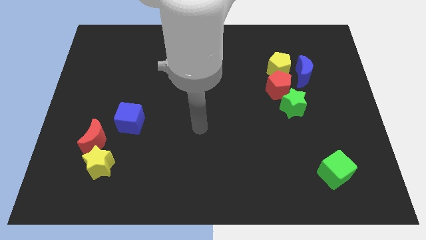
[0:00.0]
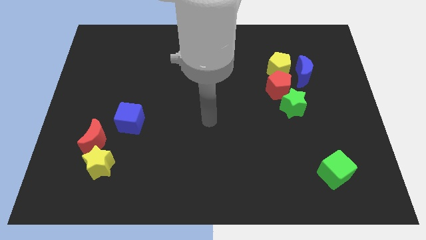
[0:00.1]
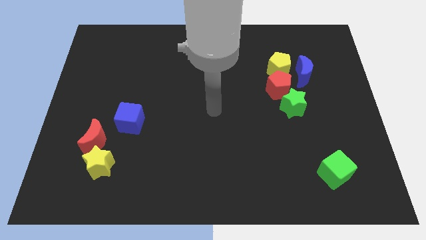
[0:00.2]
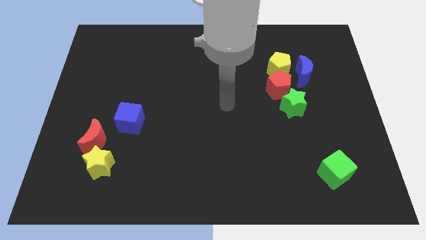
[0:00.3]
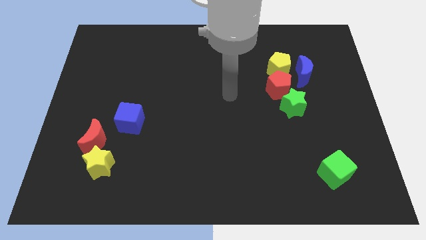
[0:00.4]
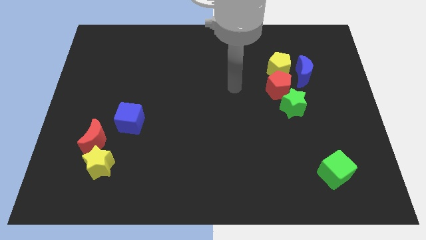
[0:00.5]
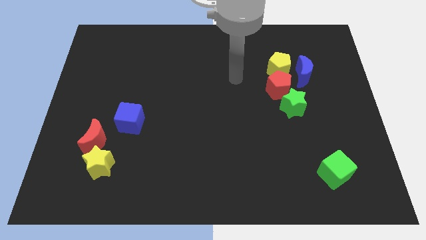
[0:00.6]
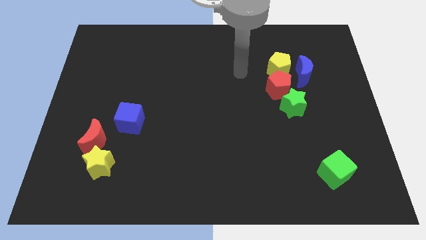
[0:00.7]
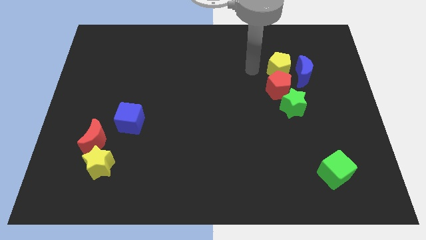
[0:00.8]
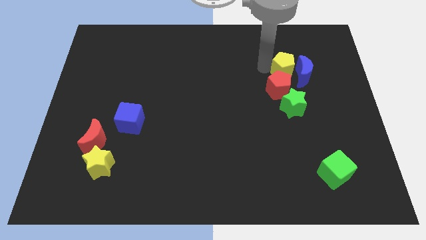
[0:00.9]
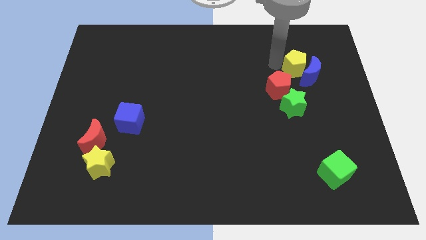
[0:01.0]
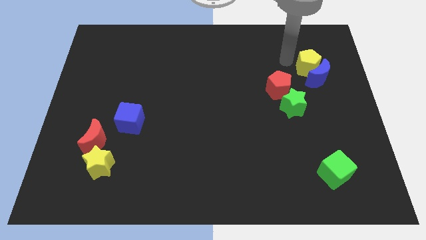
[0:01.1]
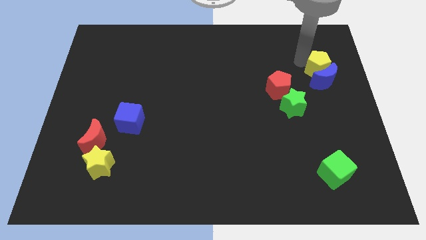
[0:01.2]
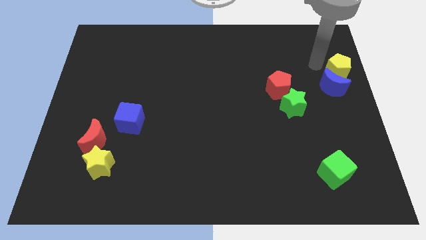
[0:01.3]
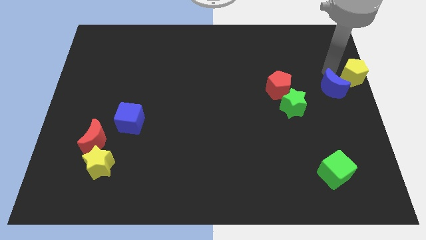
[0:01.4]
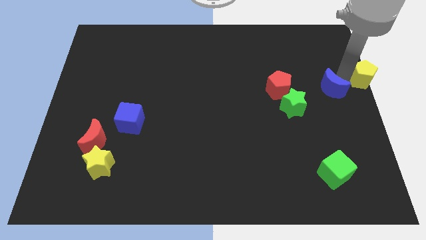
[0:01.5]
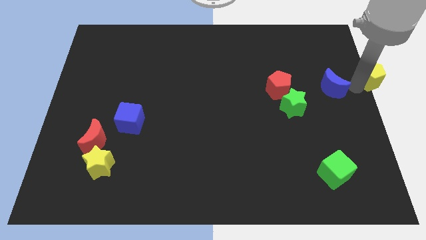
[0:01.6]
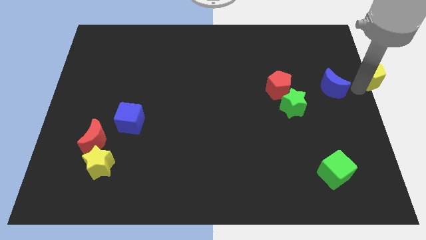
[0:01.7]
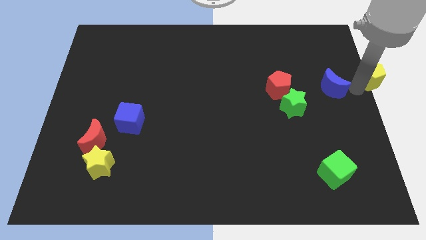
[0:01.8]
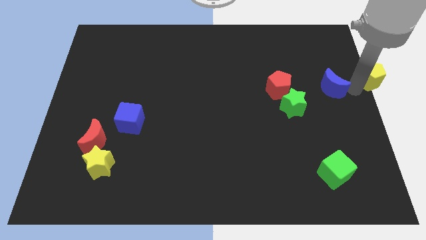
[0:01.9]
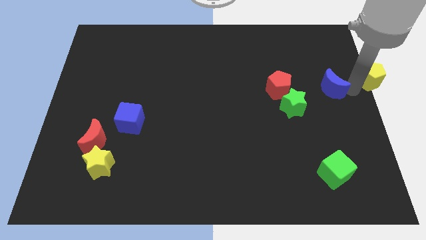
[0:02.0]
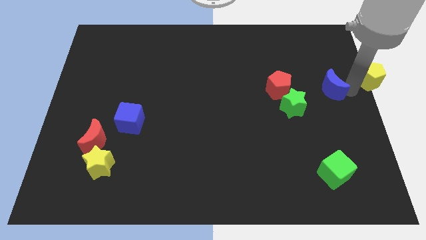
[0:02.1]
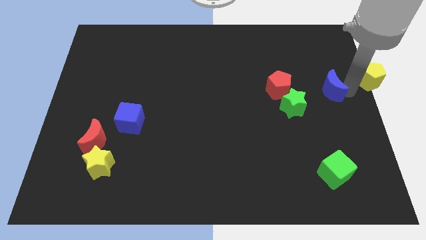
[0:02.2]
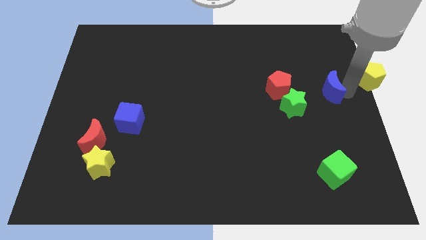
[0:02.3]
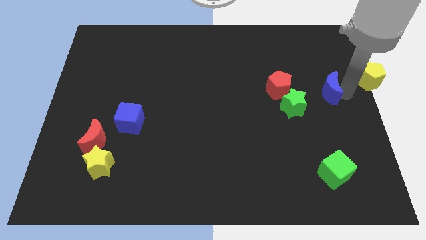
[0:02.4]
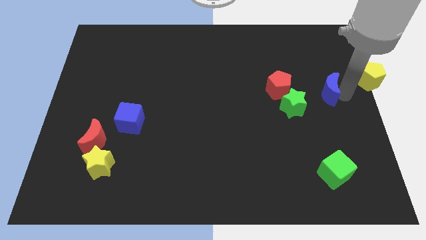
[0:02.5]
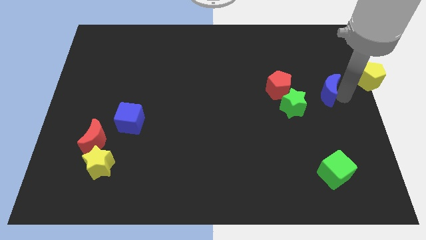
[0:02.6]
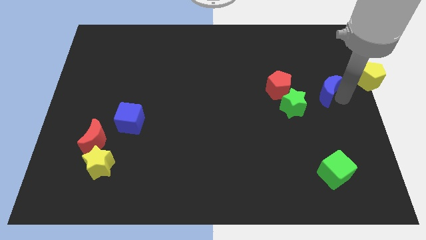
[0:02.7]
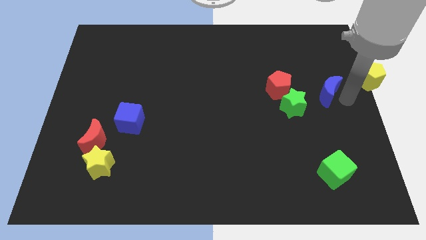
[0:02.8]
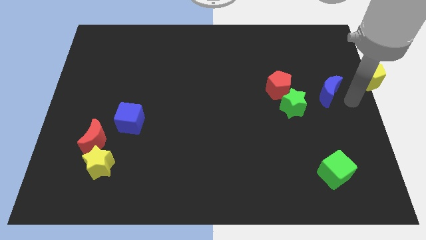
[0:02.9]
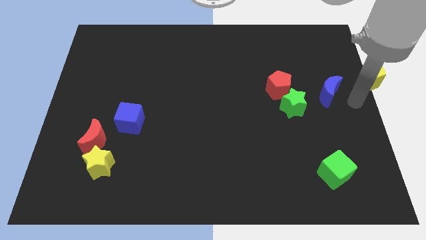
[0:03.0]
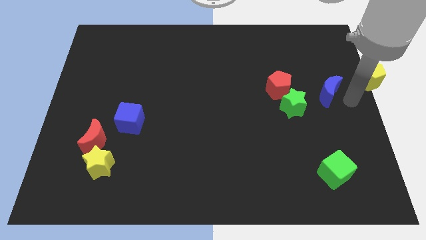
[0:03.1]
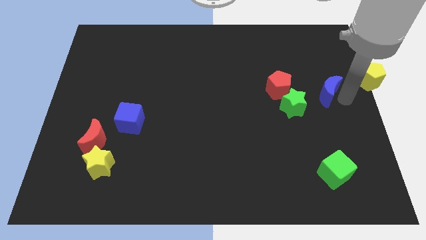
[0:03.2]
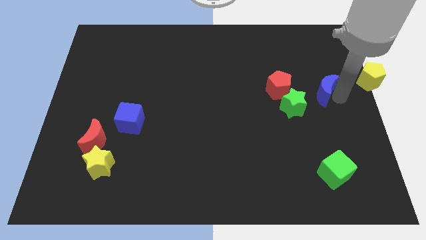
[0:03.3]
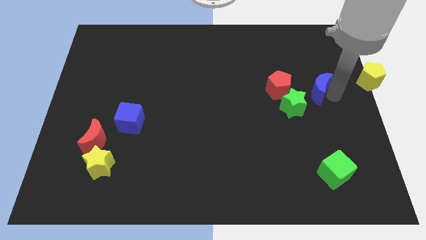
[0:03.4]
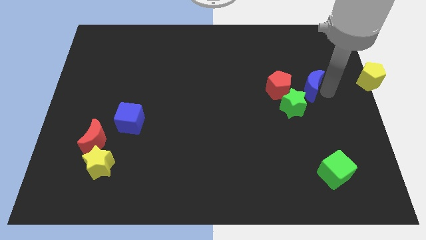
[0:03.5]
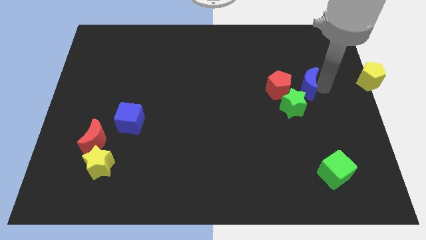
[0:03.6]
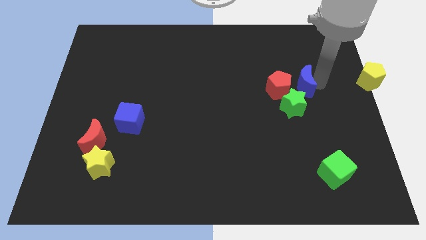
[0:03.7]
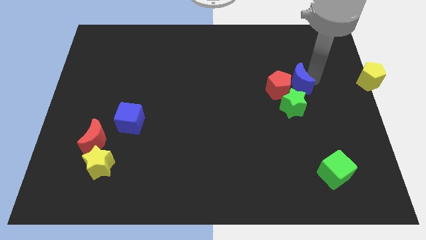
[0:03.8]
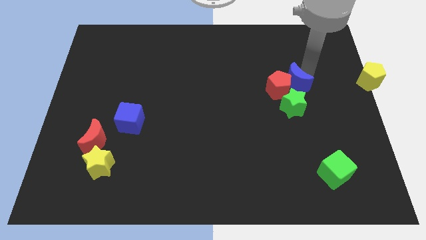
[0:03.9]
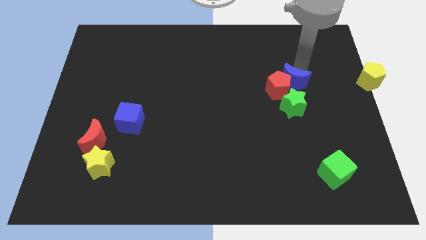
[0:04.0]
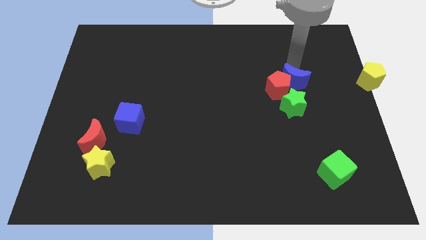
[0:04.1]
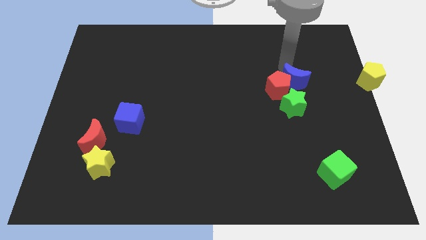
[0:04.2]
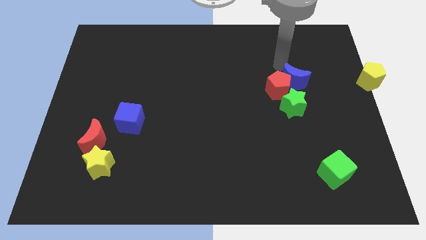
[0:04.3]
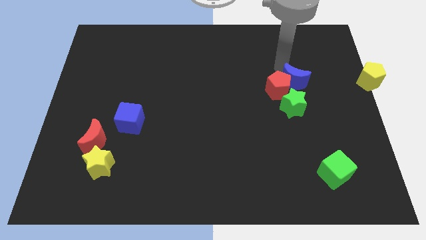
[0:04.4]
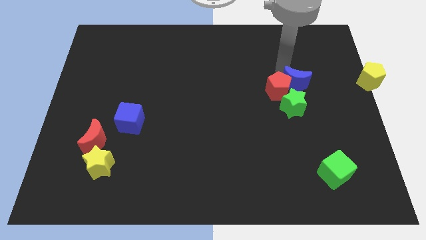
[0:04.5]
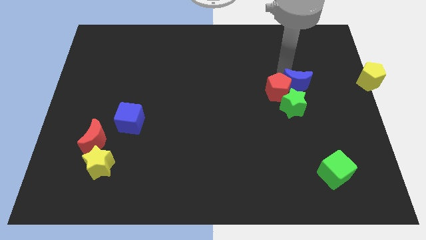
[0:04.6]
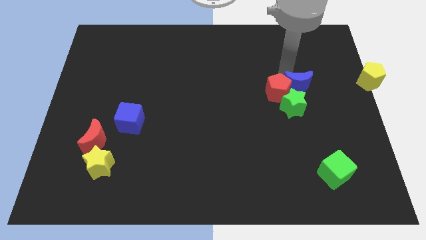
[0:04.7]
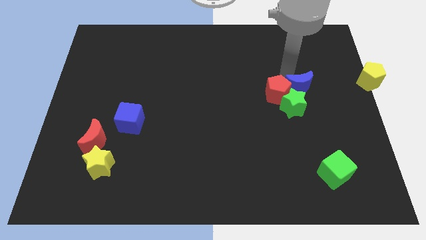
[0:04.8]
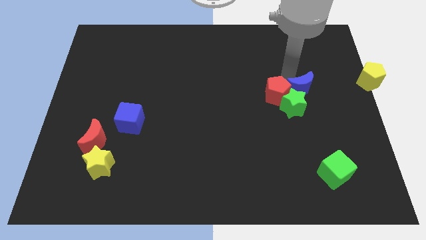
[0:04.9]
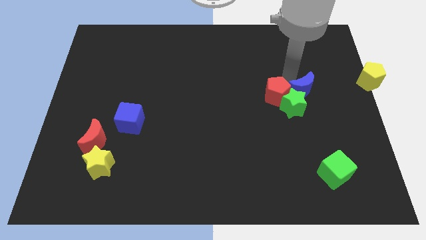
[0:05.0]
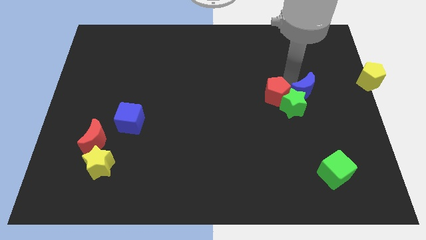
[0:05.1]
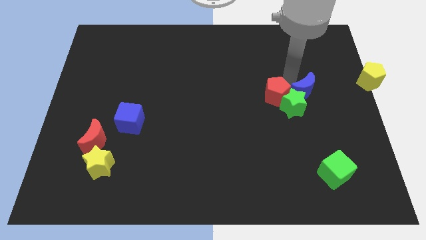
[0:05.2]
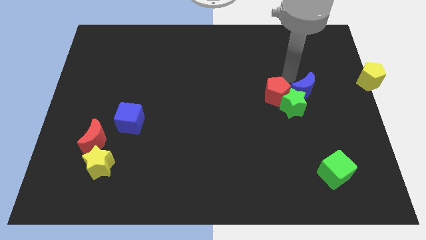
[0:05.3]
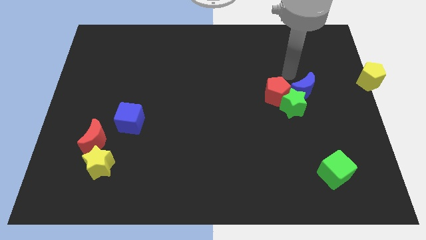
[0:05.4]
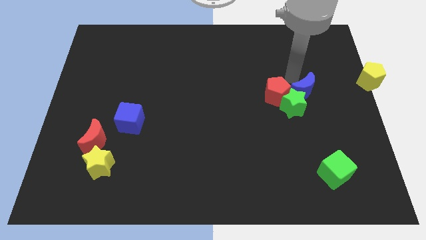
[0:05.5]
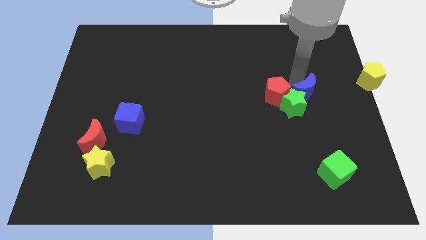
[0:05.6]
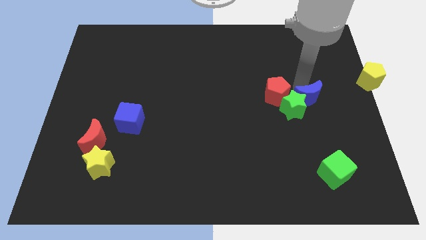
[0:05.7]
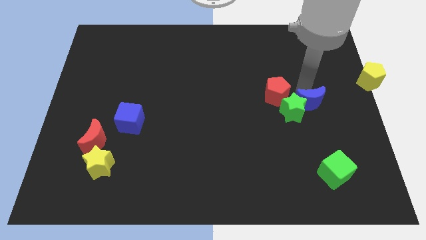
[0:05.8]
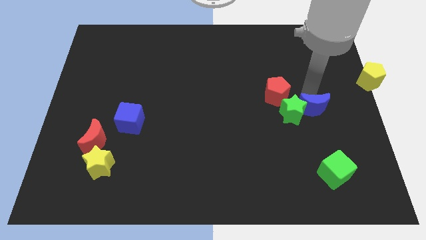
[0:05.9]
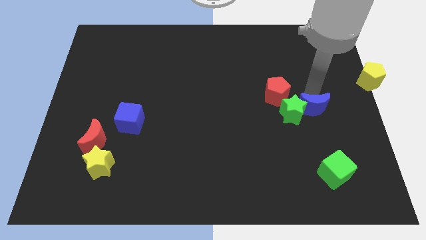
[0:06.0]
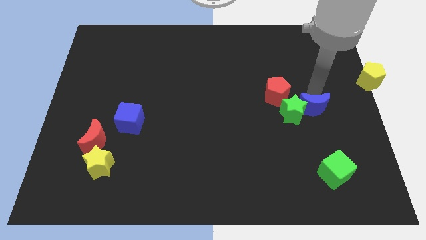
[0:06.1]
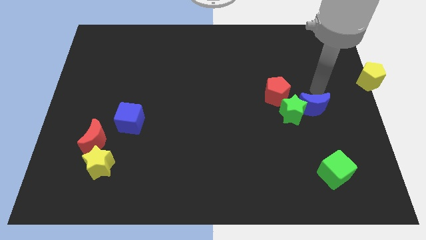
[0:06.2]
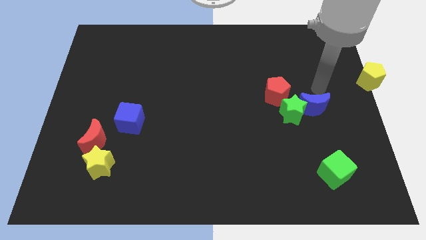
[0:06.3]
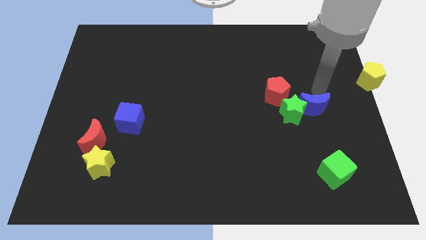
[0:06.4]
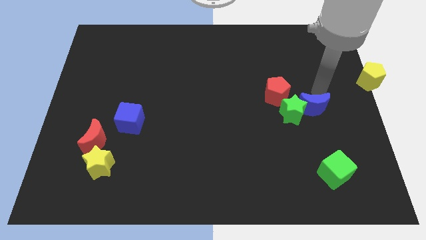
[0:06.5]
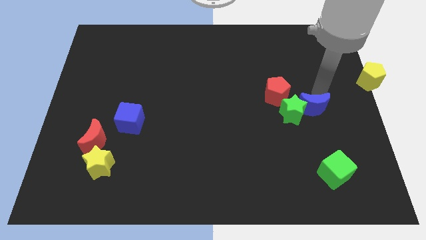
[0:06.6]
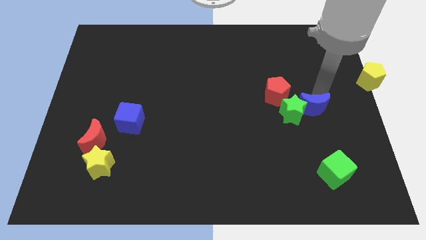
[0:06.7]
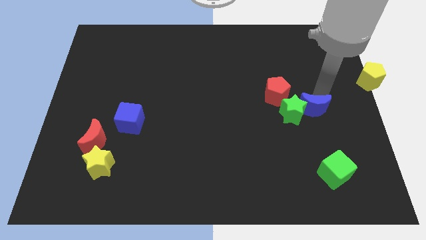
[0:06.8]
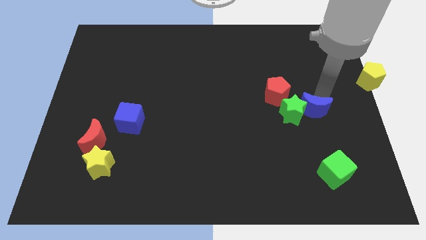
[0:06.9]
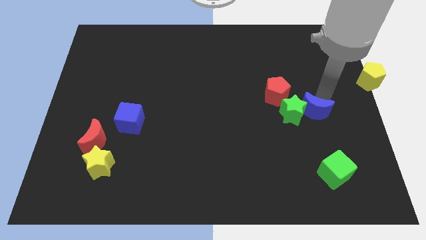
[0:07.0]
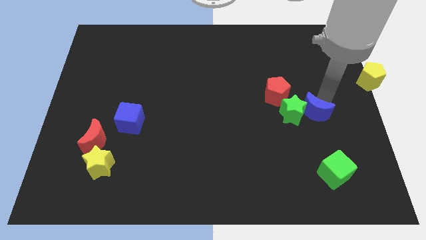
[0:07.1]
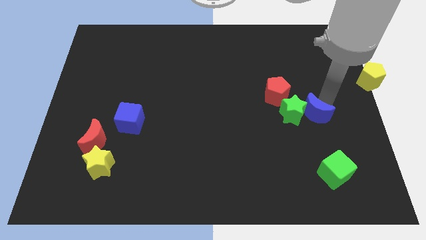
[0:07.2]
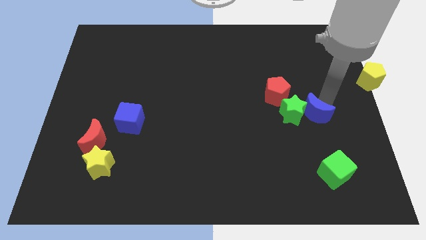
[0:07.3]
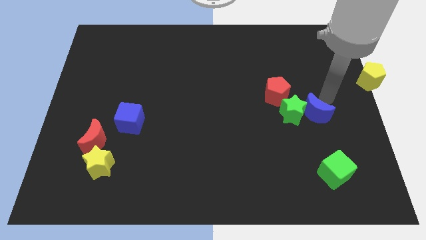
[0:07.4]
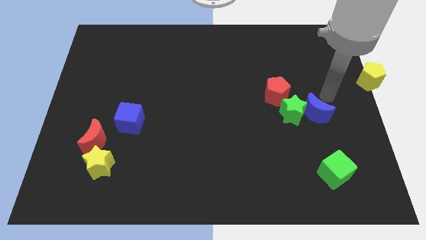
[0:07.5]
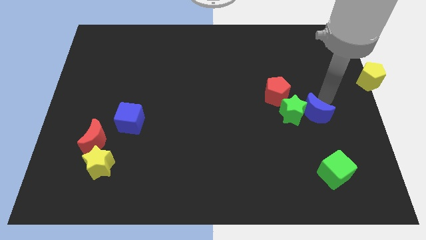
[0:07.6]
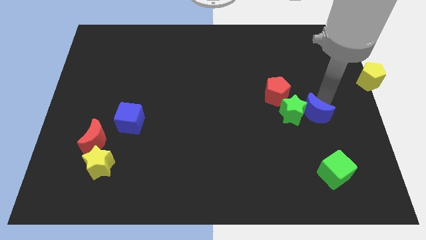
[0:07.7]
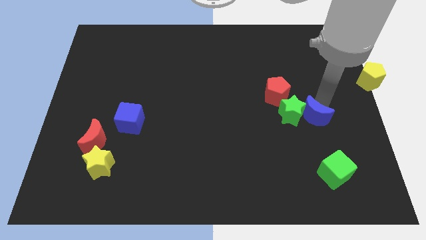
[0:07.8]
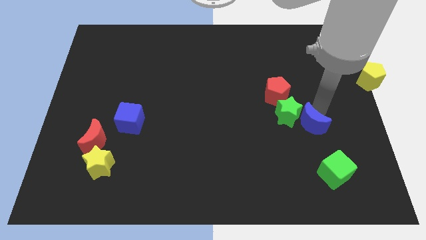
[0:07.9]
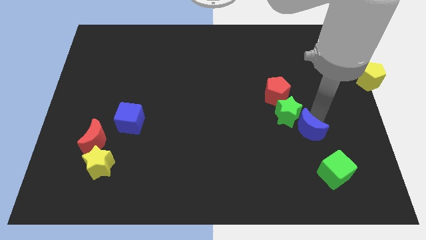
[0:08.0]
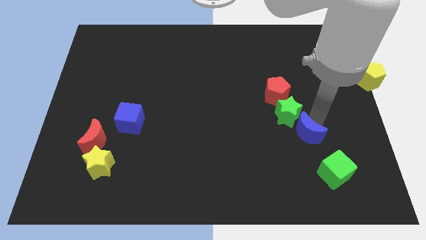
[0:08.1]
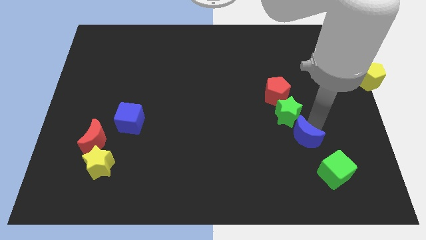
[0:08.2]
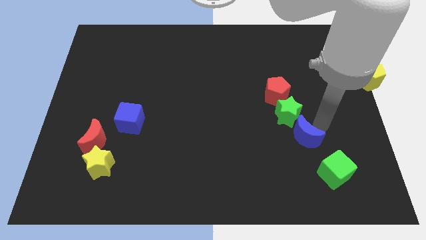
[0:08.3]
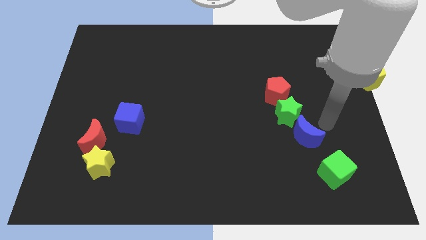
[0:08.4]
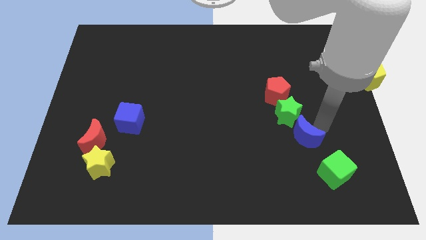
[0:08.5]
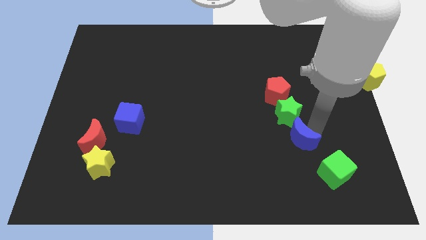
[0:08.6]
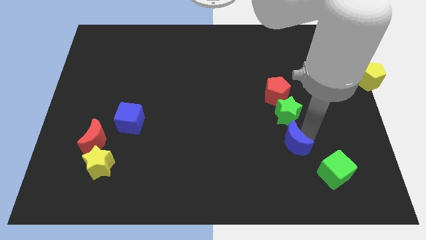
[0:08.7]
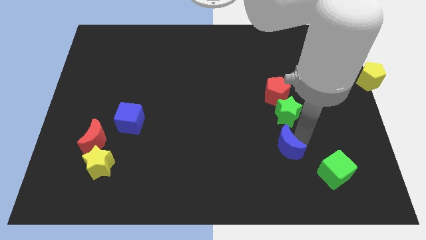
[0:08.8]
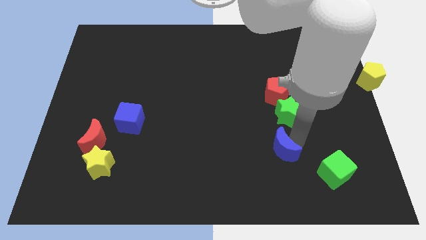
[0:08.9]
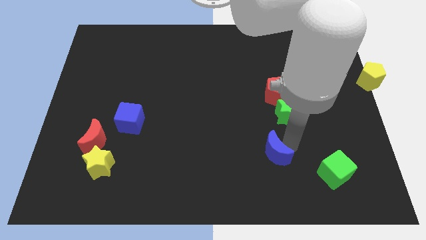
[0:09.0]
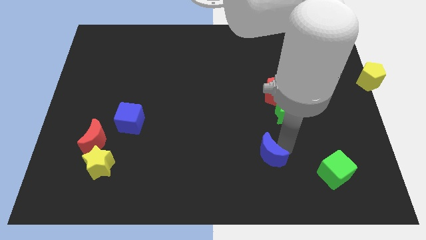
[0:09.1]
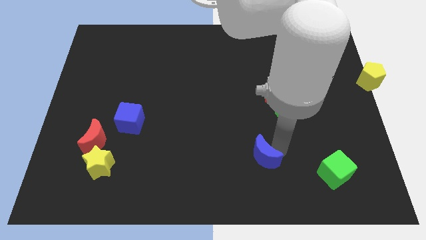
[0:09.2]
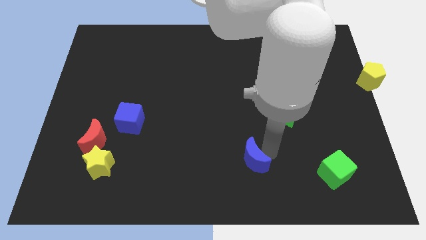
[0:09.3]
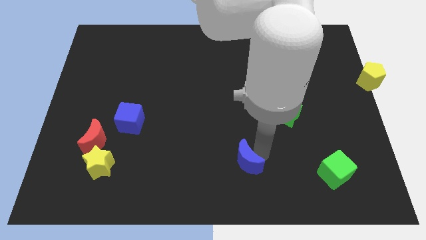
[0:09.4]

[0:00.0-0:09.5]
slide the blue moon to the bottom
